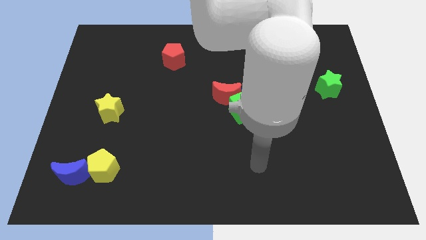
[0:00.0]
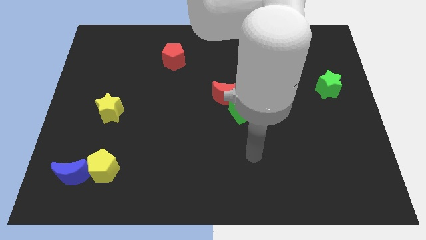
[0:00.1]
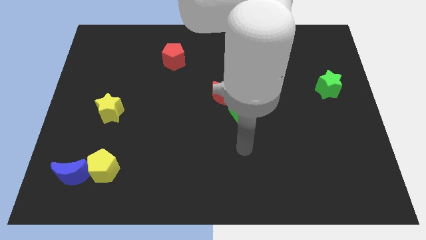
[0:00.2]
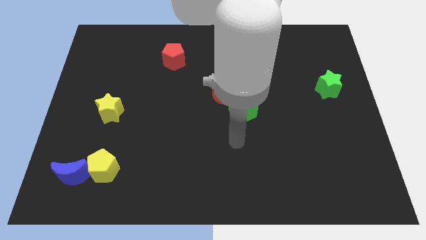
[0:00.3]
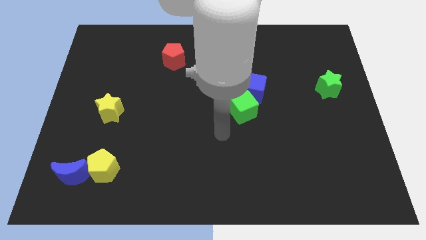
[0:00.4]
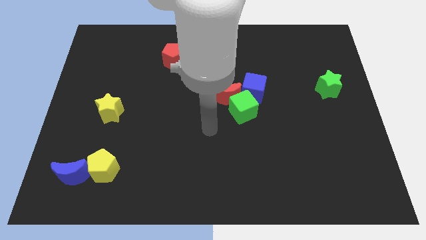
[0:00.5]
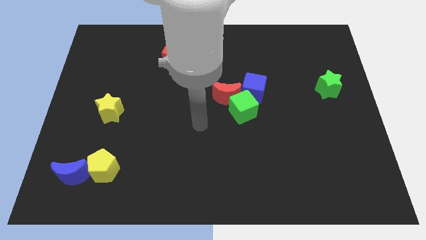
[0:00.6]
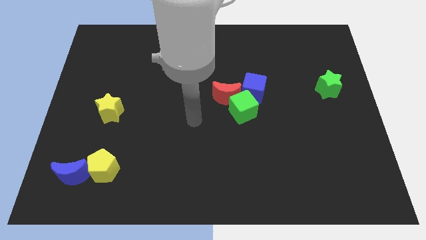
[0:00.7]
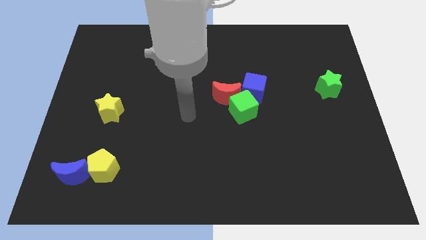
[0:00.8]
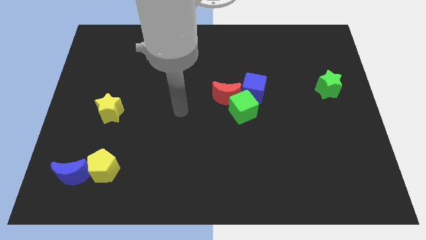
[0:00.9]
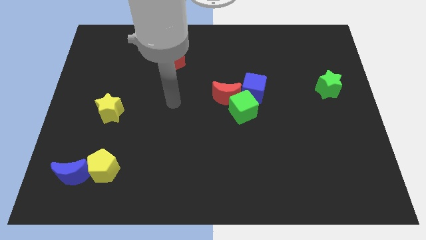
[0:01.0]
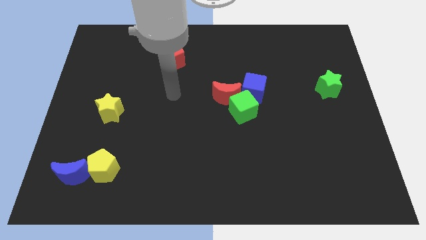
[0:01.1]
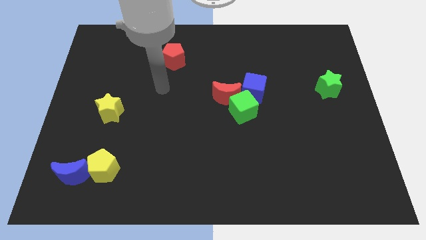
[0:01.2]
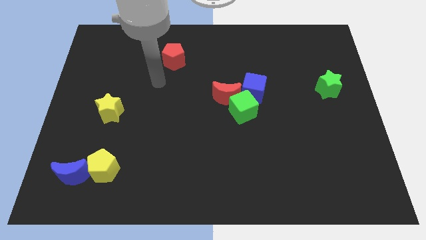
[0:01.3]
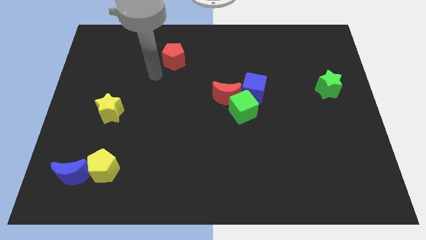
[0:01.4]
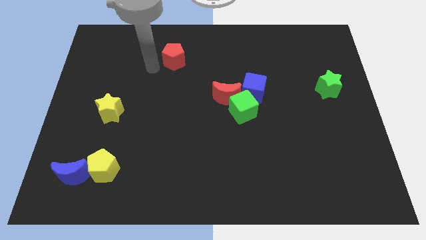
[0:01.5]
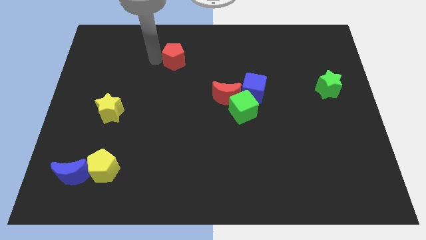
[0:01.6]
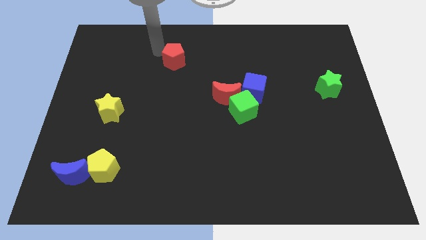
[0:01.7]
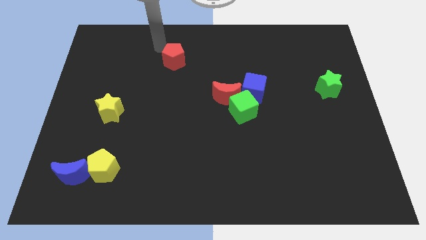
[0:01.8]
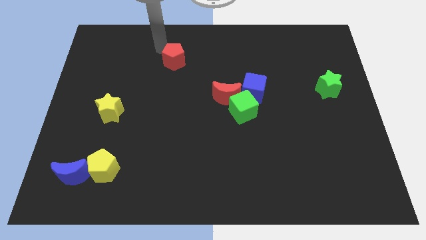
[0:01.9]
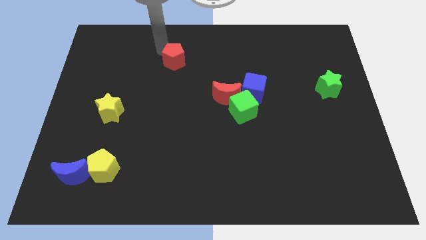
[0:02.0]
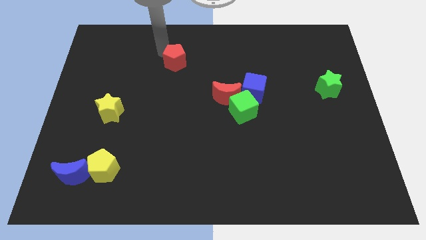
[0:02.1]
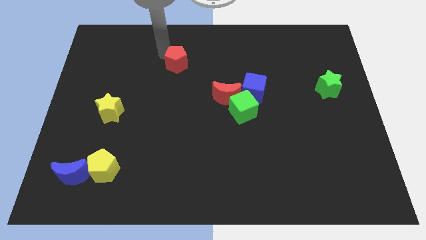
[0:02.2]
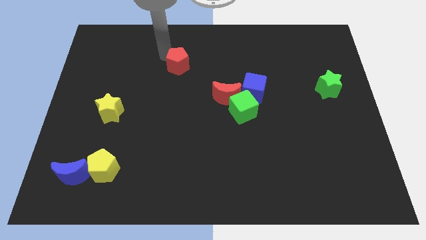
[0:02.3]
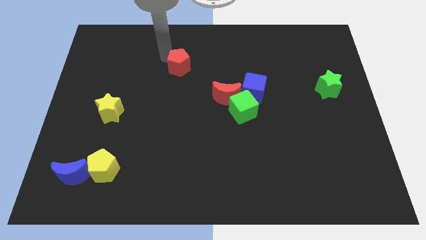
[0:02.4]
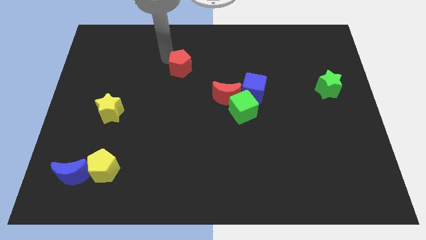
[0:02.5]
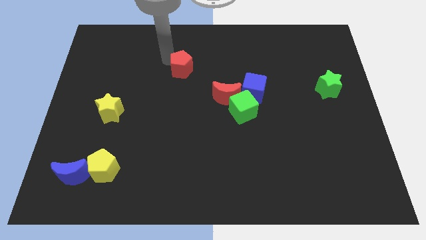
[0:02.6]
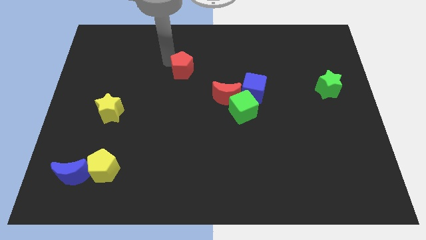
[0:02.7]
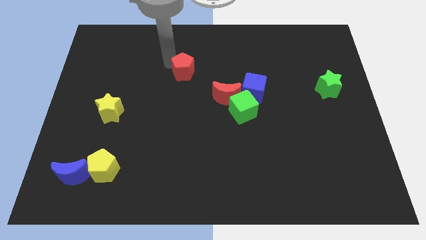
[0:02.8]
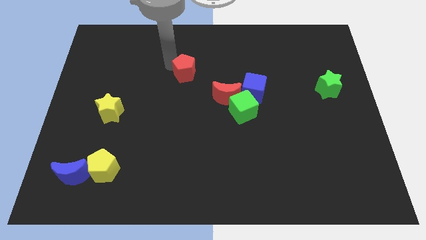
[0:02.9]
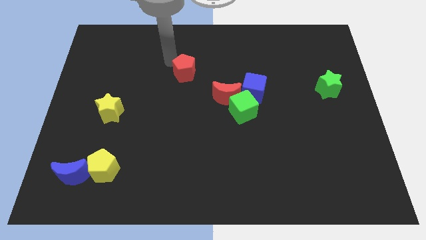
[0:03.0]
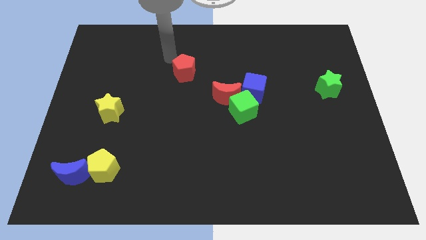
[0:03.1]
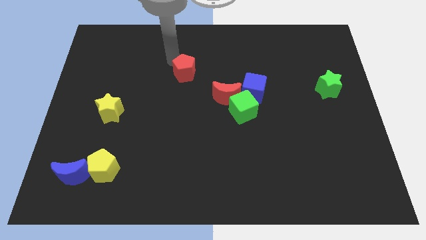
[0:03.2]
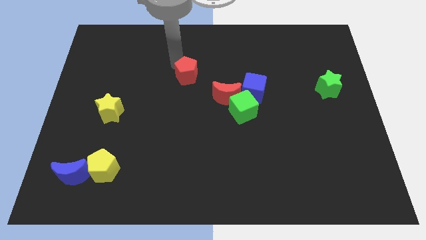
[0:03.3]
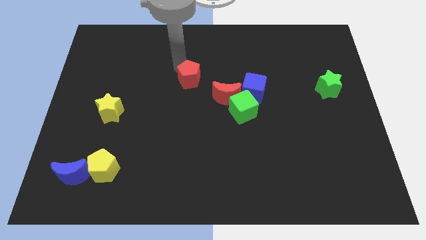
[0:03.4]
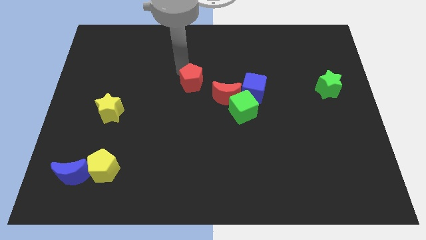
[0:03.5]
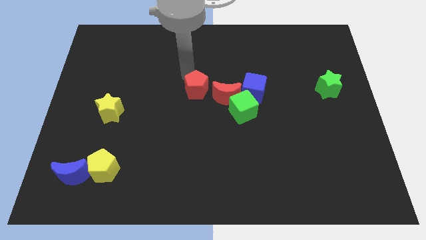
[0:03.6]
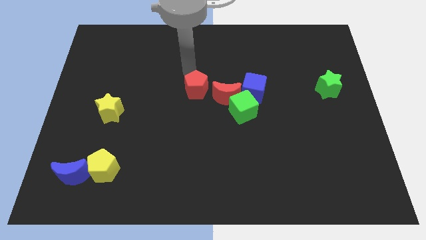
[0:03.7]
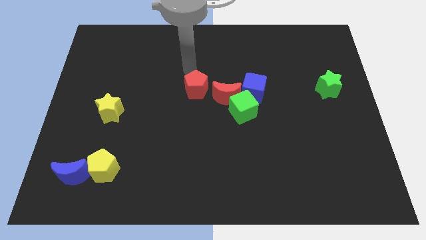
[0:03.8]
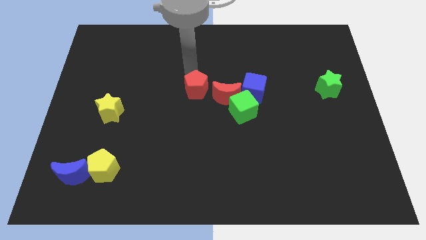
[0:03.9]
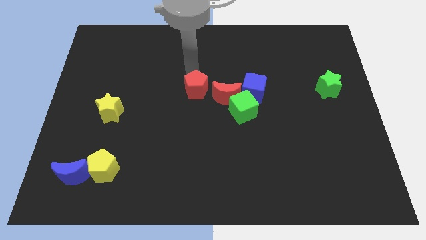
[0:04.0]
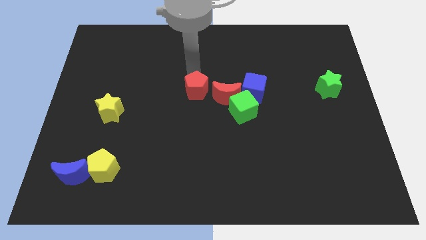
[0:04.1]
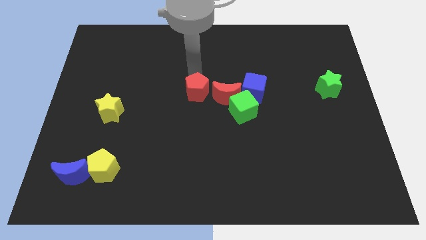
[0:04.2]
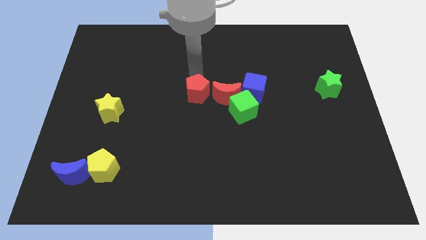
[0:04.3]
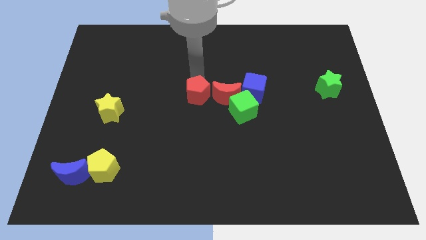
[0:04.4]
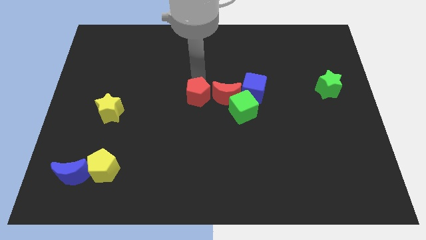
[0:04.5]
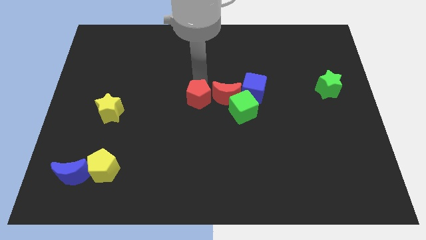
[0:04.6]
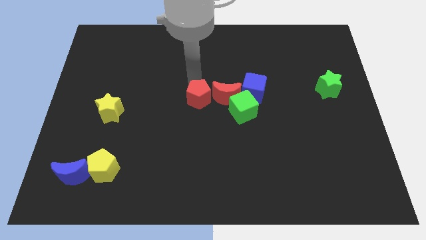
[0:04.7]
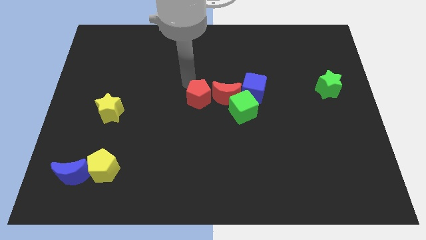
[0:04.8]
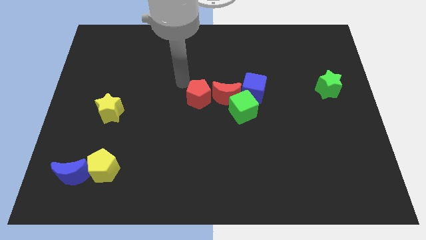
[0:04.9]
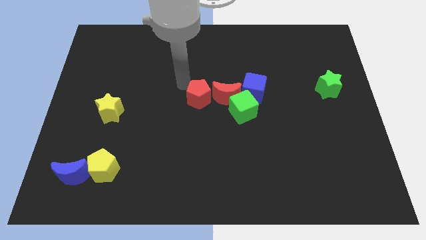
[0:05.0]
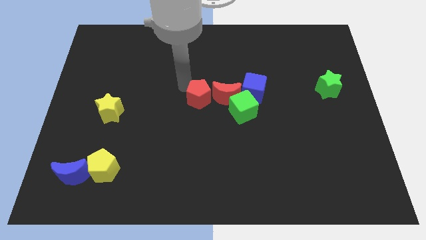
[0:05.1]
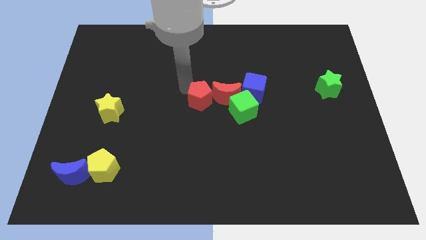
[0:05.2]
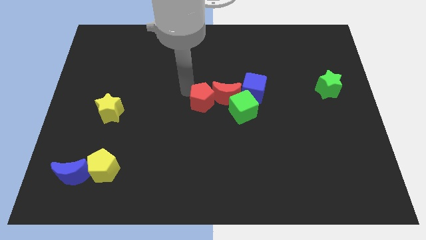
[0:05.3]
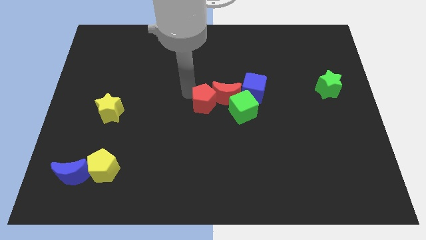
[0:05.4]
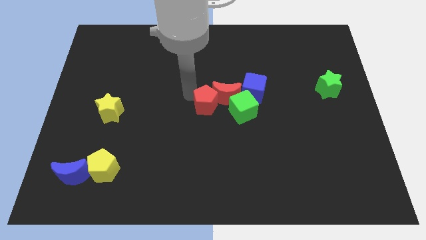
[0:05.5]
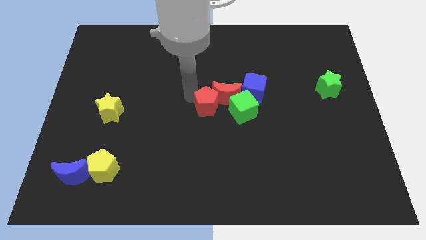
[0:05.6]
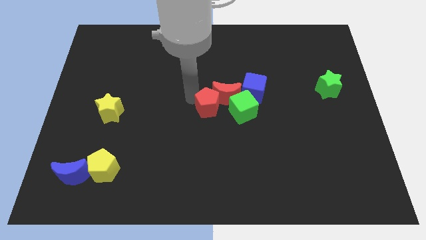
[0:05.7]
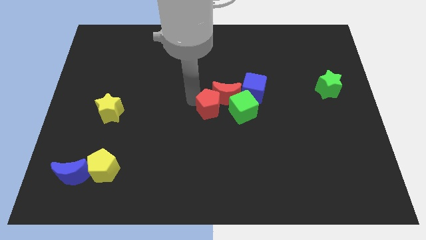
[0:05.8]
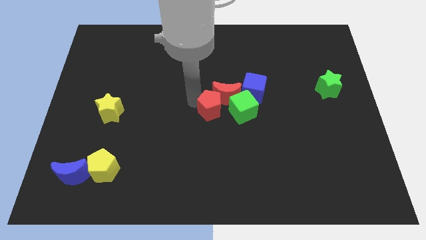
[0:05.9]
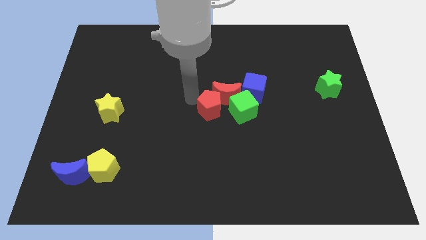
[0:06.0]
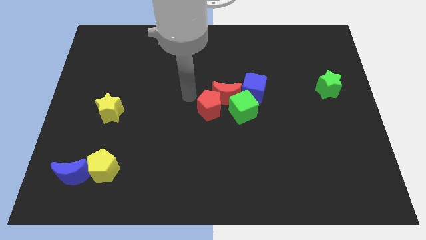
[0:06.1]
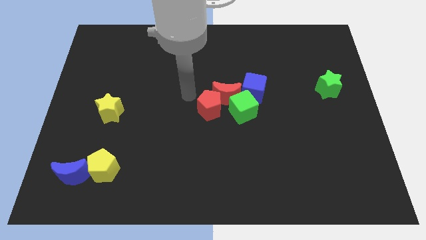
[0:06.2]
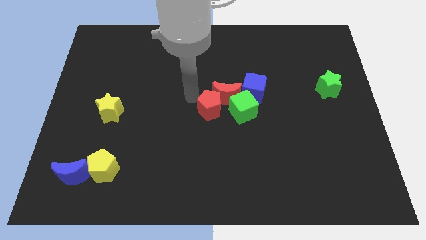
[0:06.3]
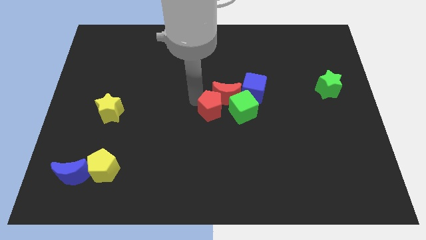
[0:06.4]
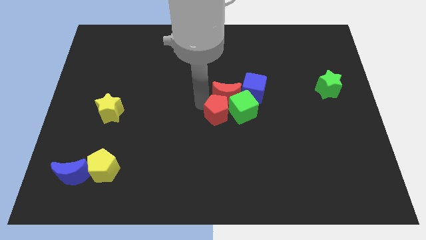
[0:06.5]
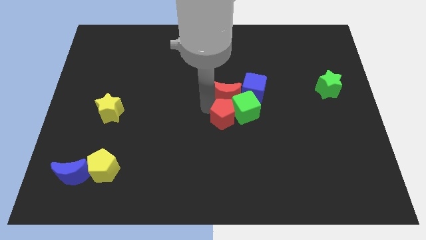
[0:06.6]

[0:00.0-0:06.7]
push the red pentagon down and to the right

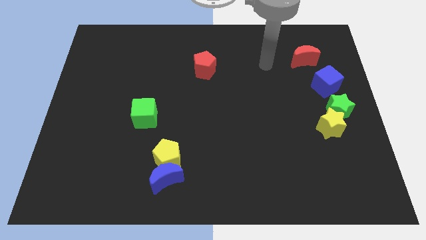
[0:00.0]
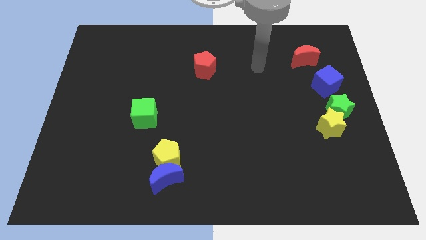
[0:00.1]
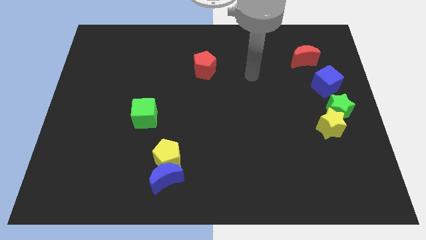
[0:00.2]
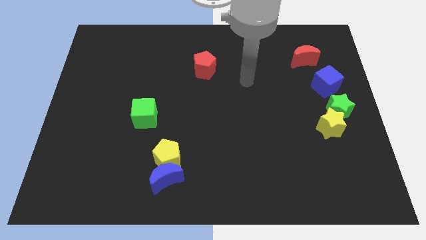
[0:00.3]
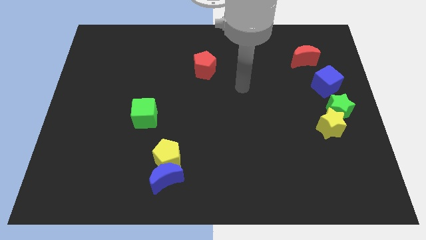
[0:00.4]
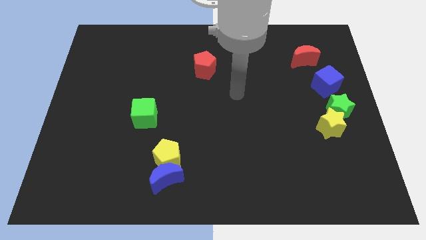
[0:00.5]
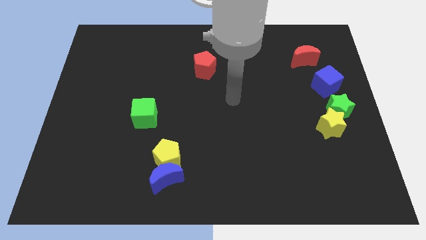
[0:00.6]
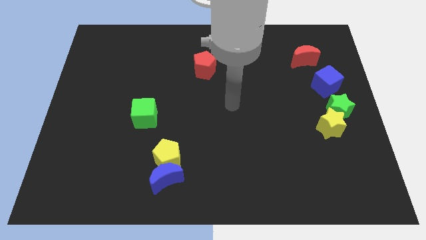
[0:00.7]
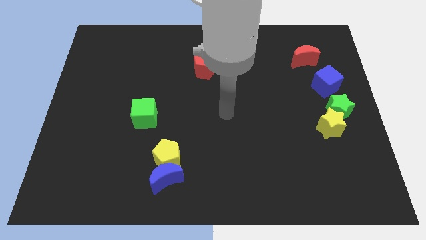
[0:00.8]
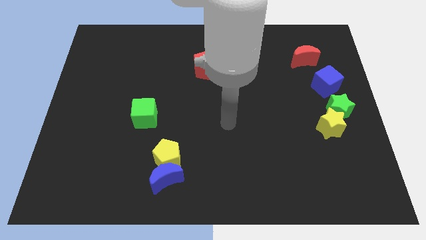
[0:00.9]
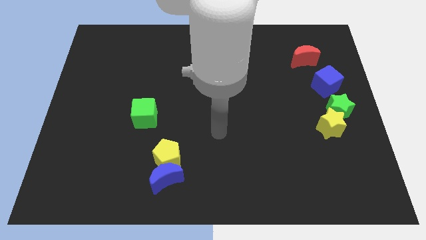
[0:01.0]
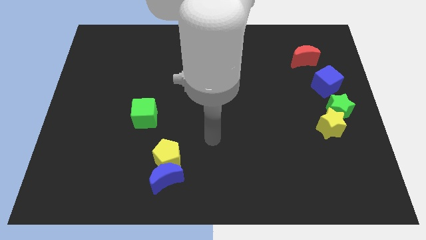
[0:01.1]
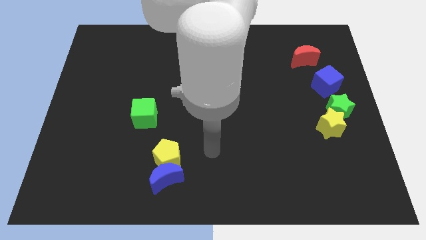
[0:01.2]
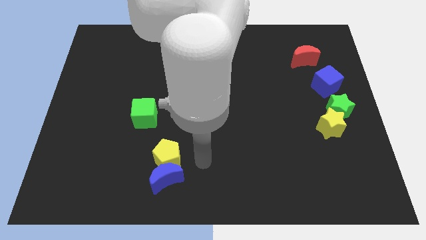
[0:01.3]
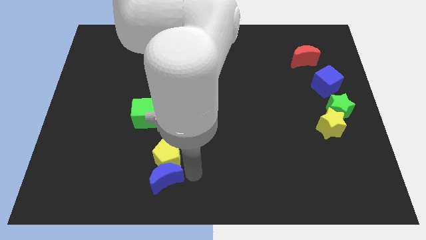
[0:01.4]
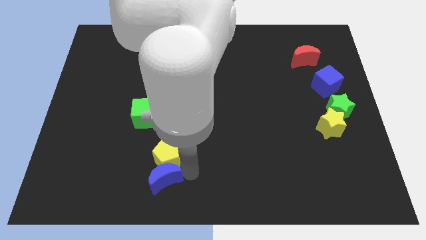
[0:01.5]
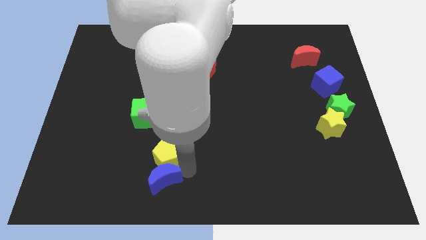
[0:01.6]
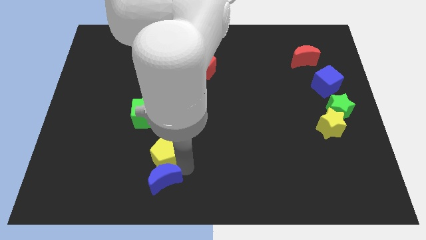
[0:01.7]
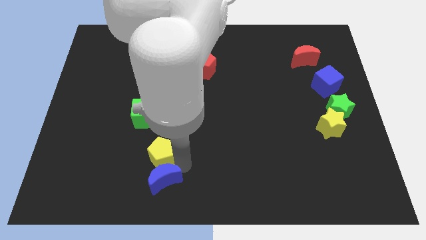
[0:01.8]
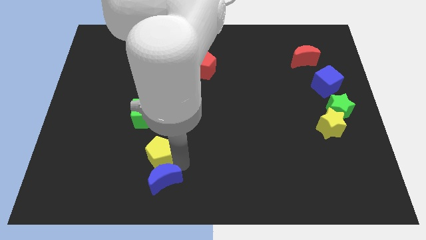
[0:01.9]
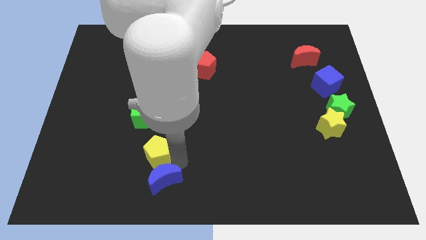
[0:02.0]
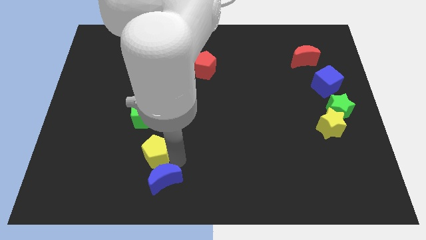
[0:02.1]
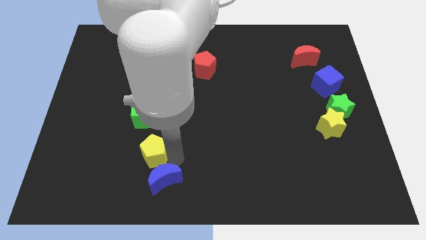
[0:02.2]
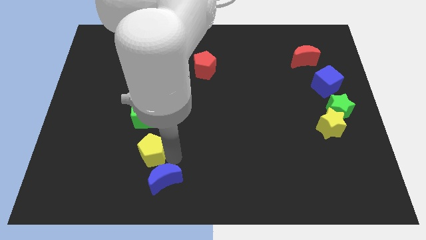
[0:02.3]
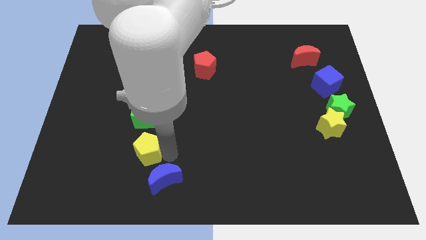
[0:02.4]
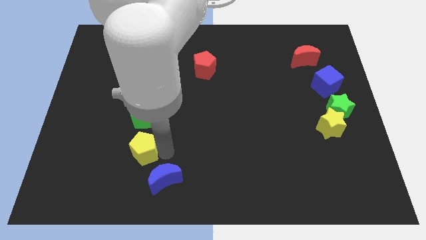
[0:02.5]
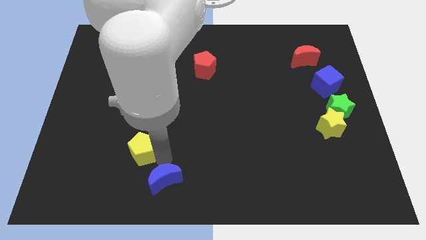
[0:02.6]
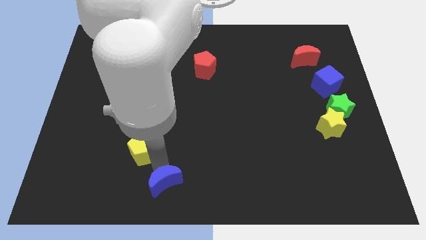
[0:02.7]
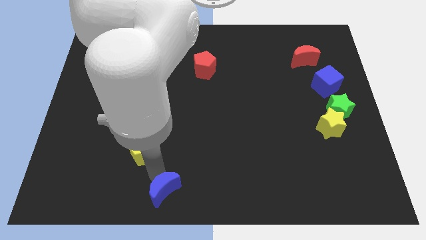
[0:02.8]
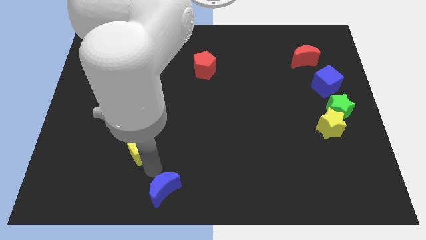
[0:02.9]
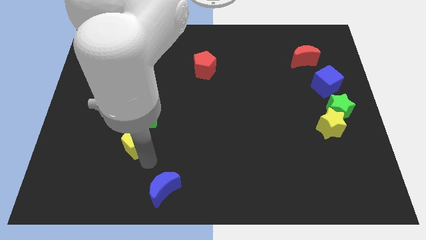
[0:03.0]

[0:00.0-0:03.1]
slightly push the yellow pentagon up and left
